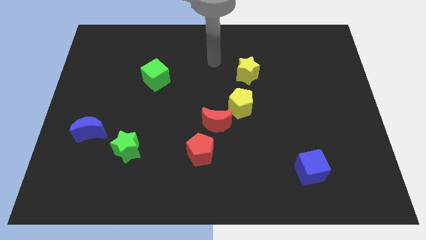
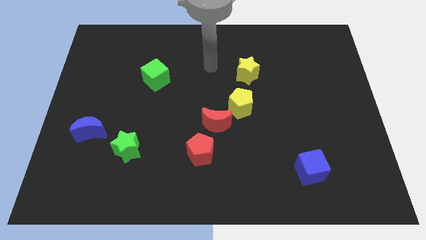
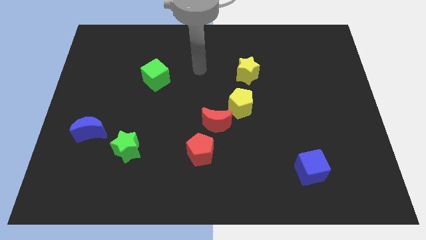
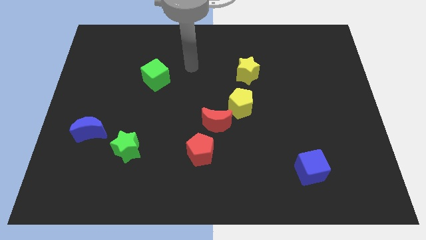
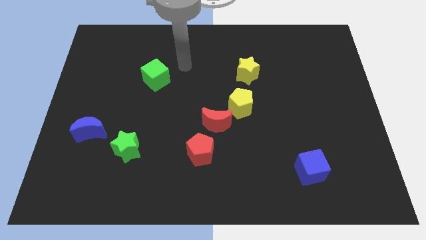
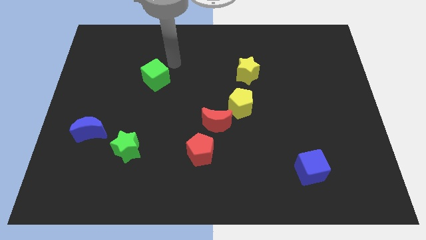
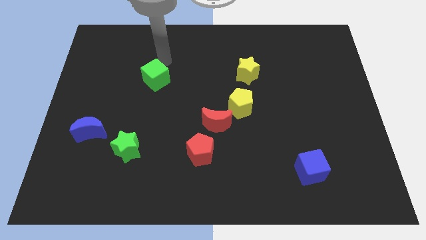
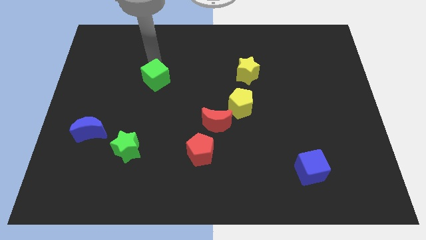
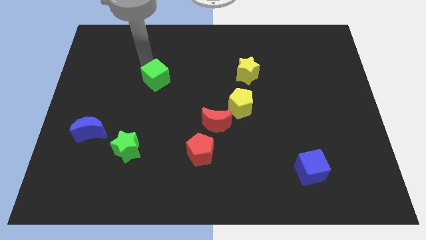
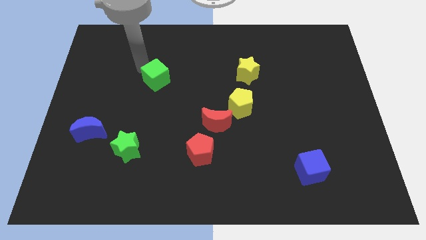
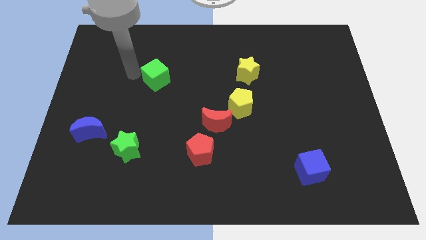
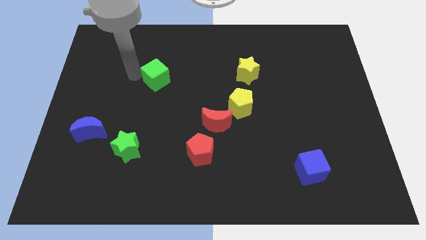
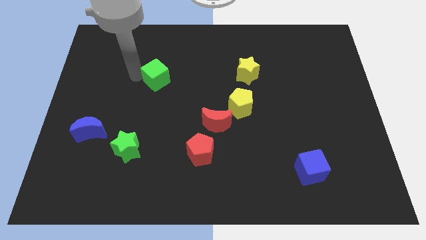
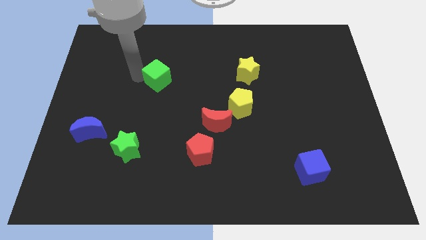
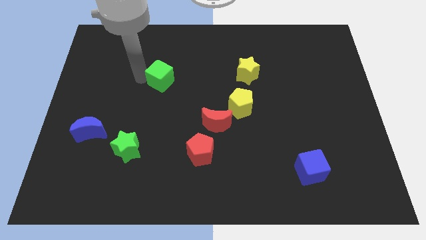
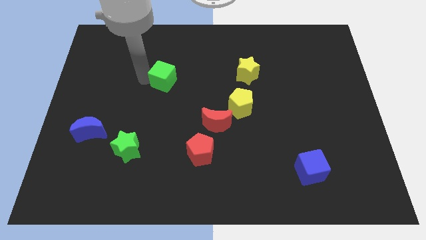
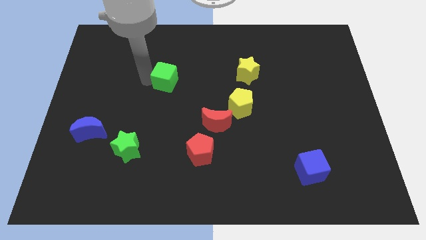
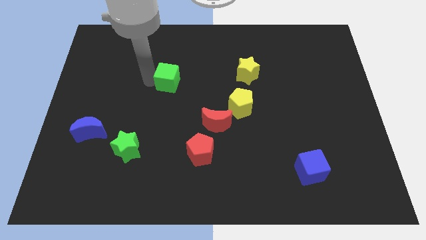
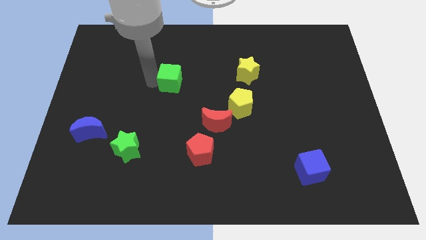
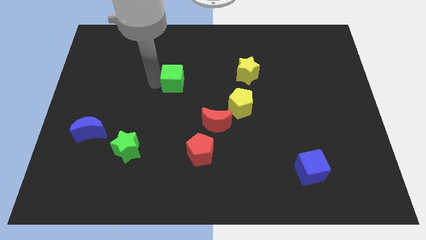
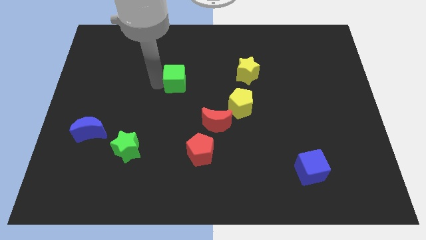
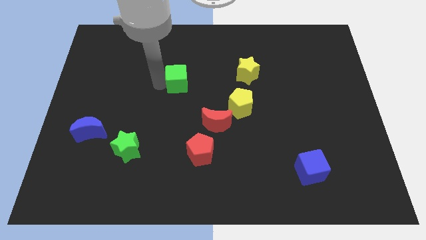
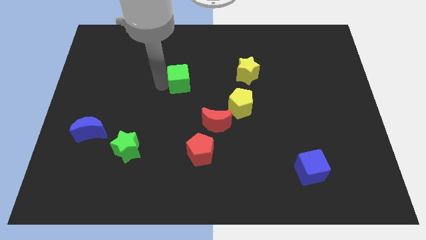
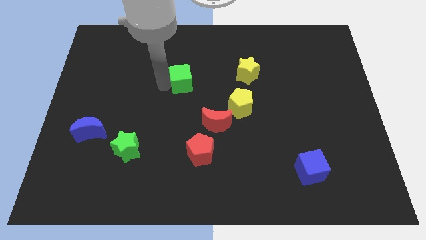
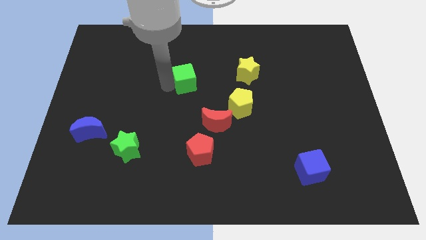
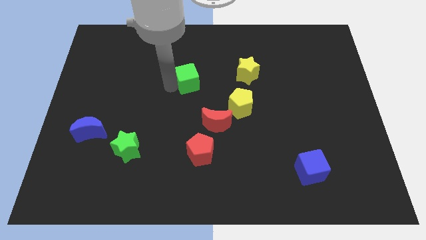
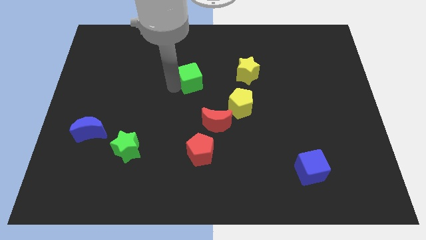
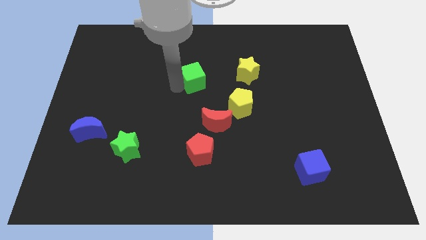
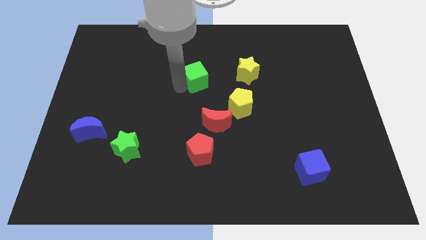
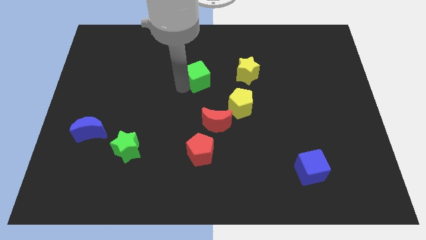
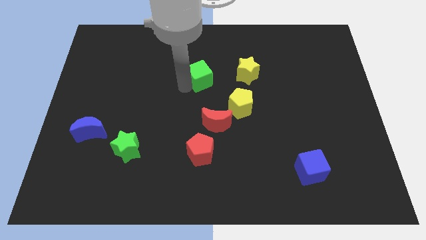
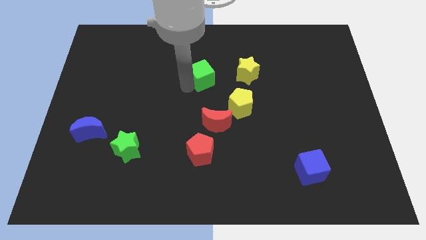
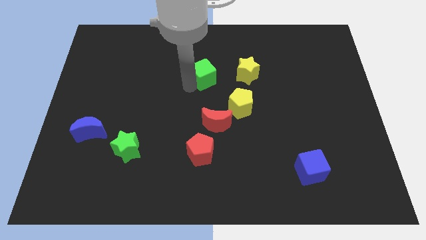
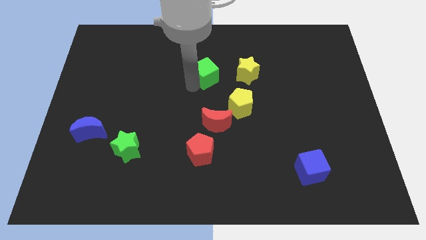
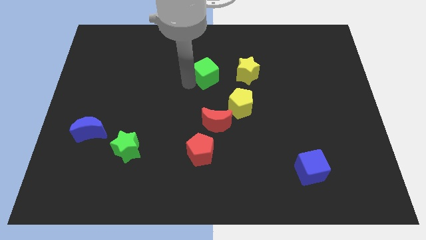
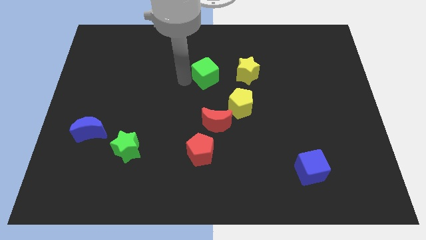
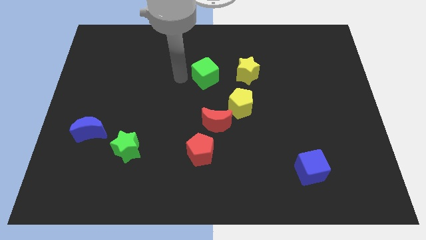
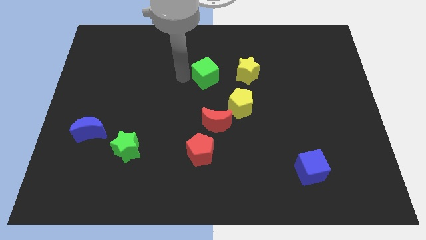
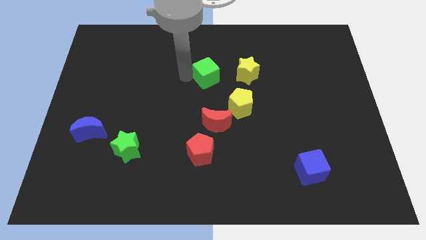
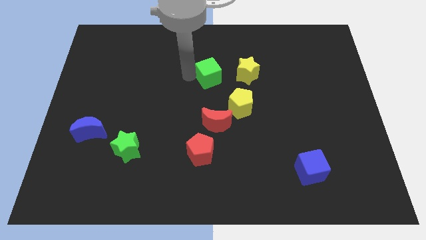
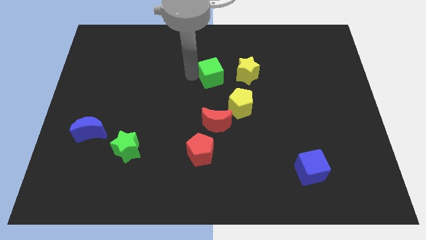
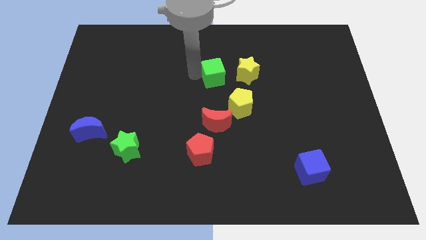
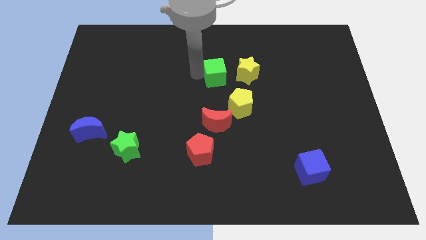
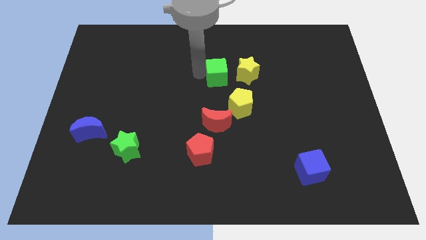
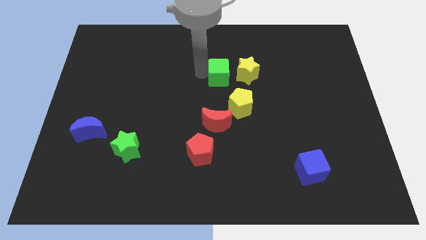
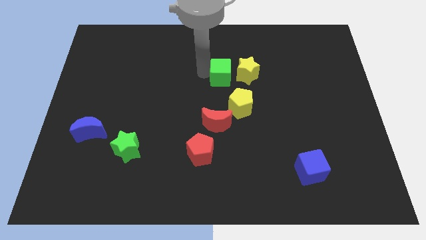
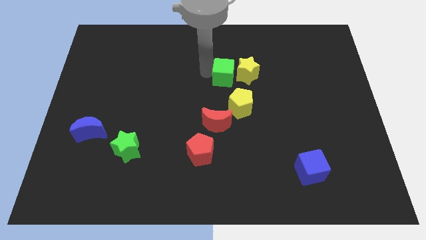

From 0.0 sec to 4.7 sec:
slide the green cube to the yellow star

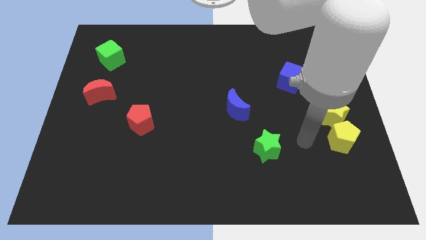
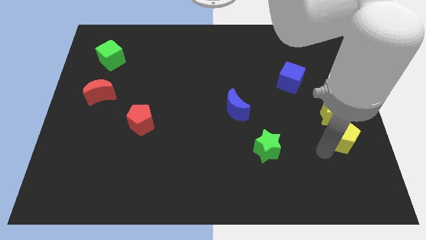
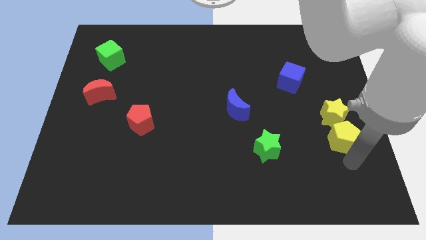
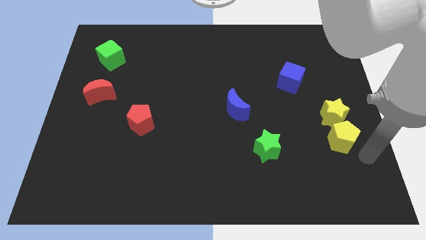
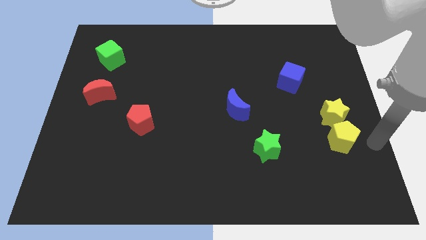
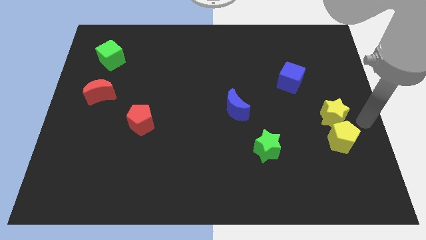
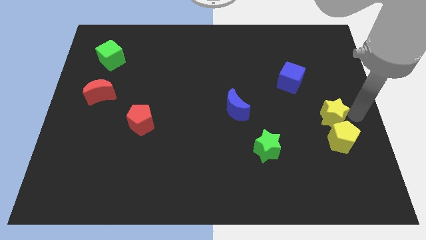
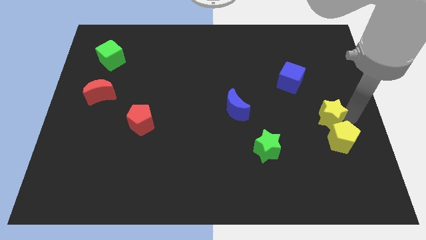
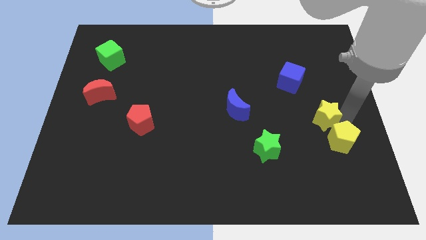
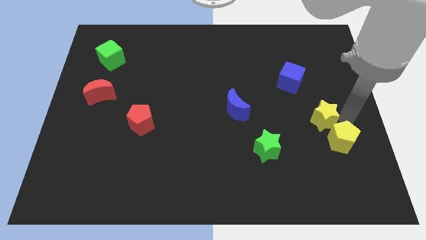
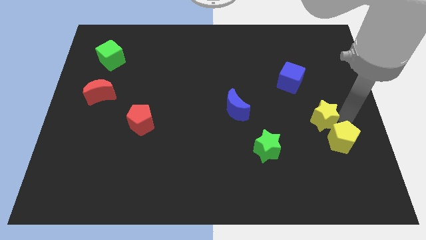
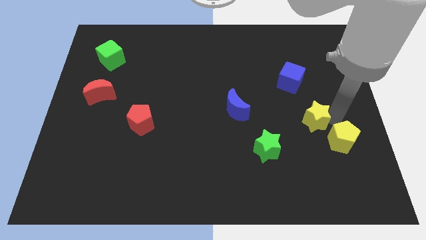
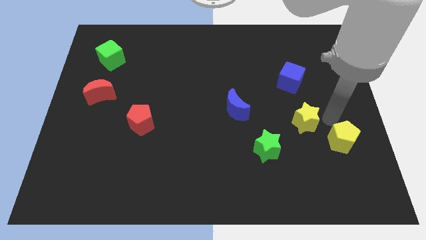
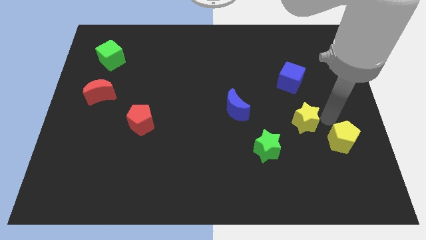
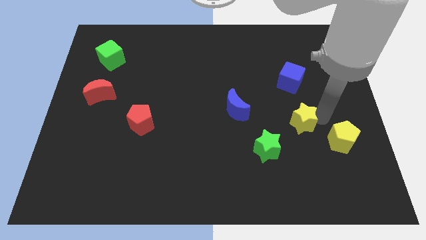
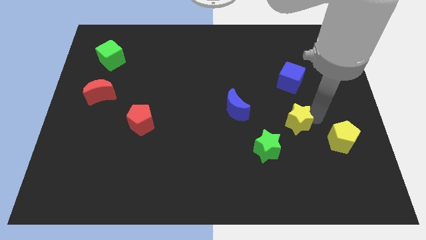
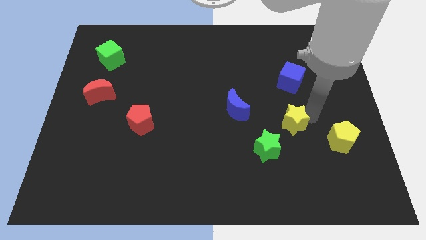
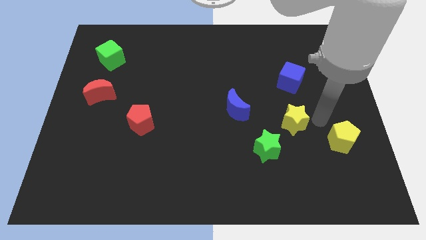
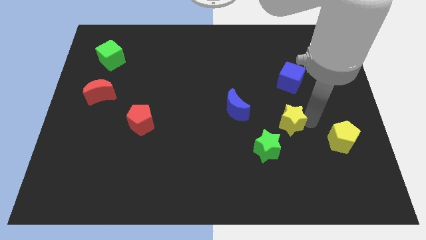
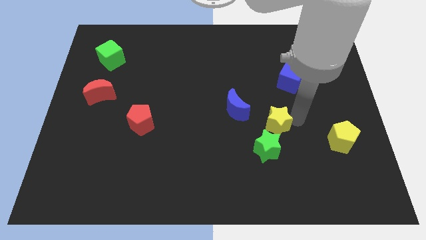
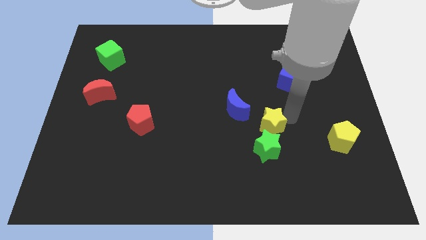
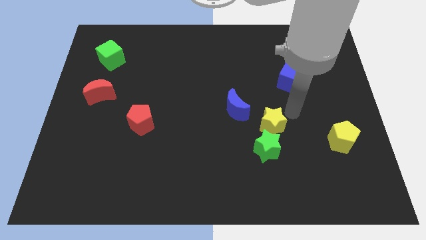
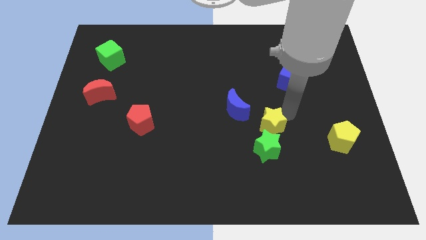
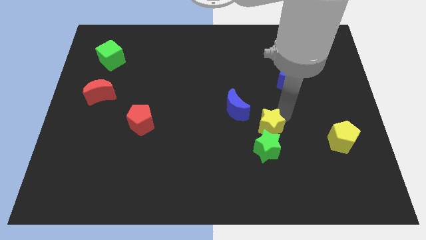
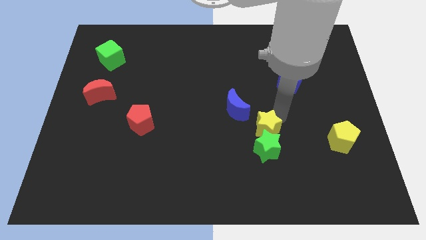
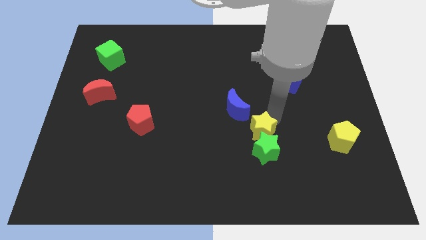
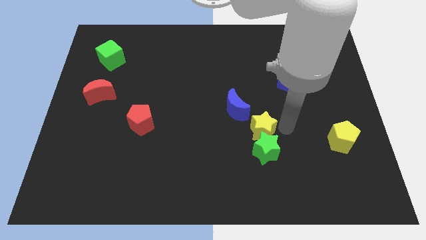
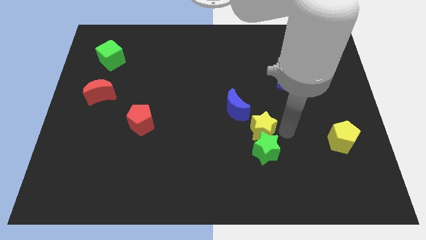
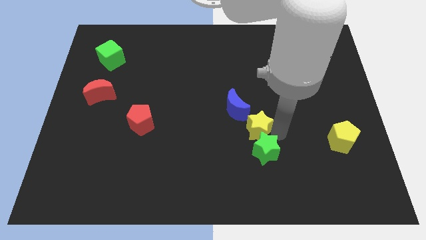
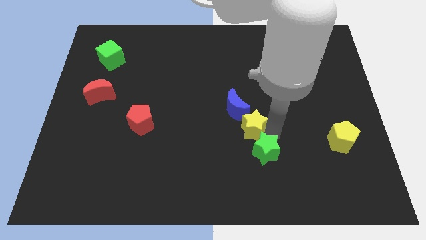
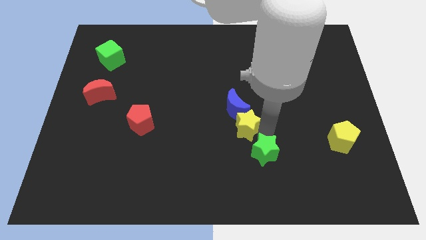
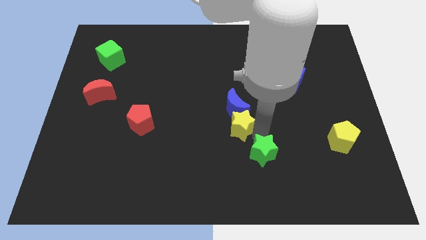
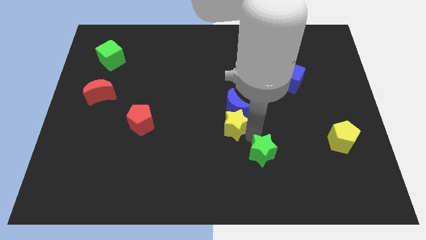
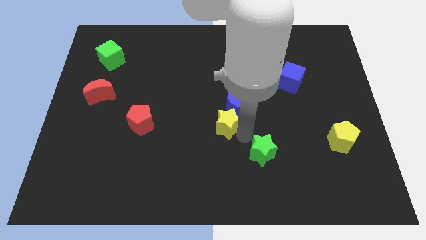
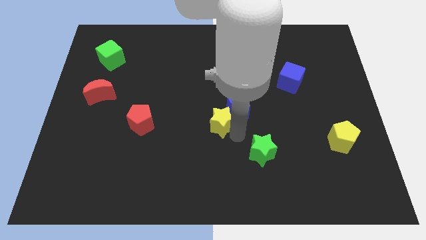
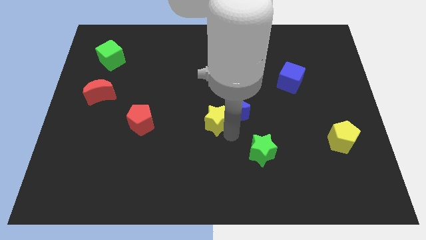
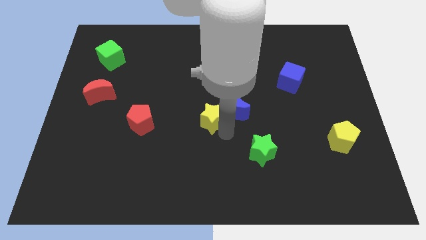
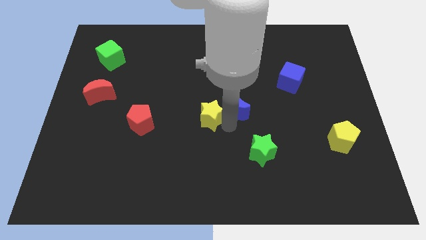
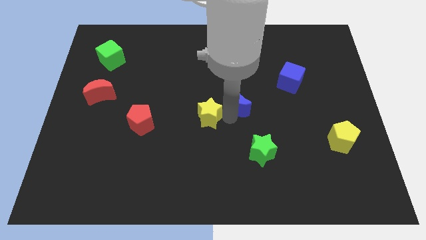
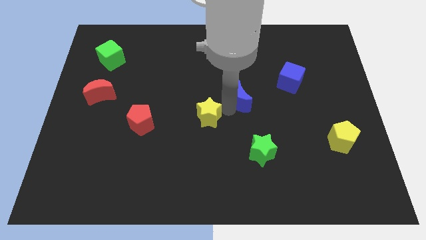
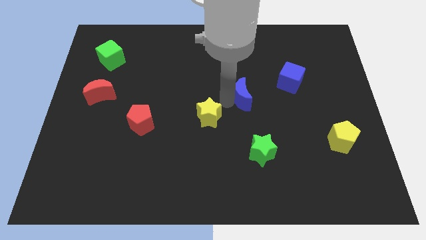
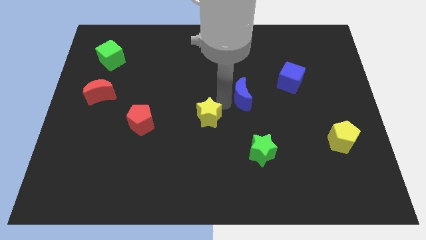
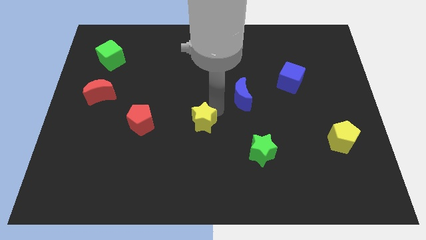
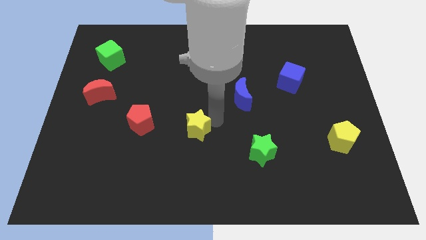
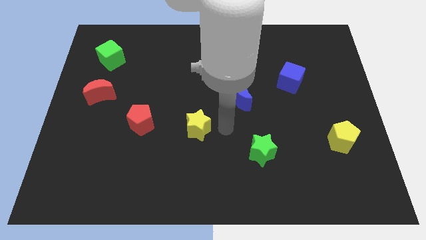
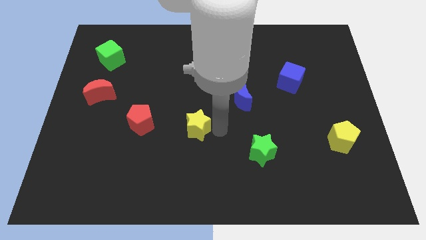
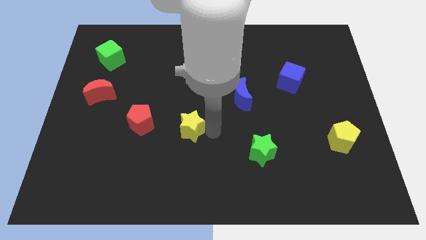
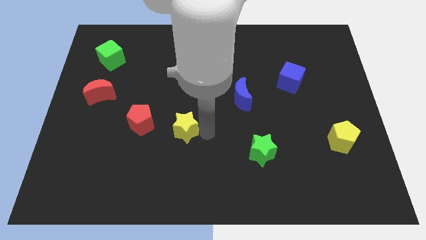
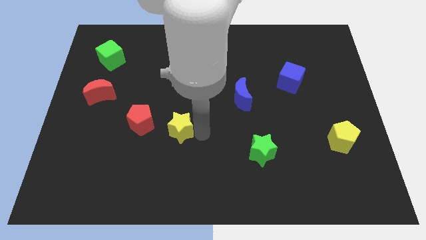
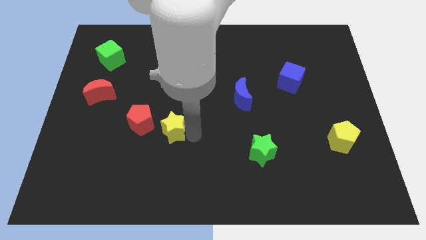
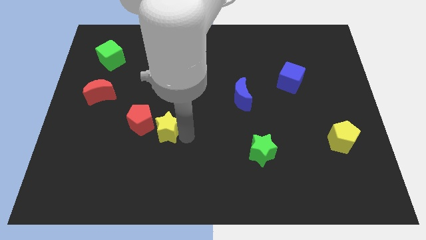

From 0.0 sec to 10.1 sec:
push the yellow star next to the red pentagon
